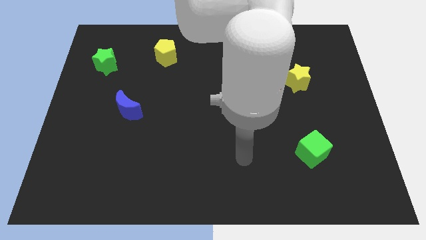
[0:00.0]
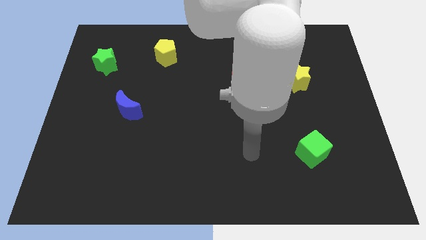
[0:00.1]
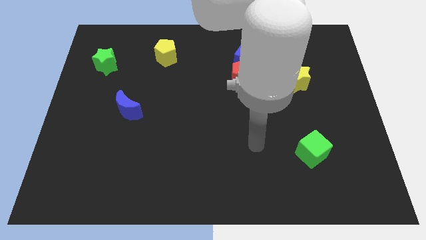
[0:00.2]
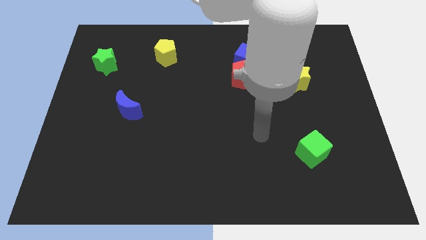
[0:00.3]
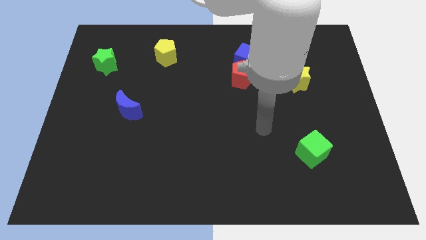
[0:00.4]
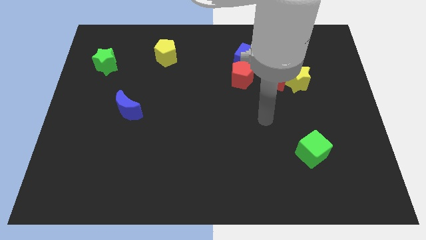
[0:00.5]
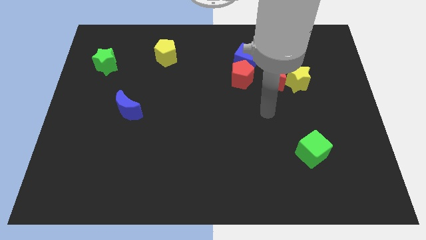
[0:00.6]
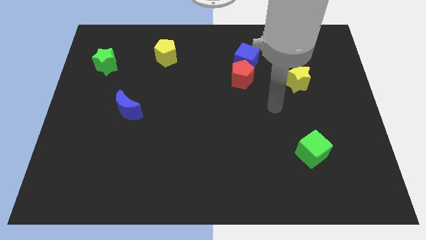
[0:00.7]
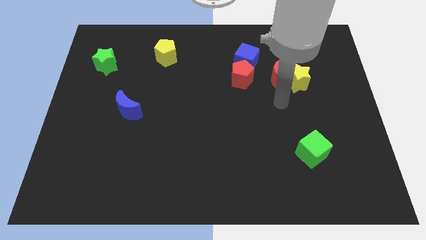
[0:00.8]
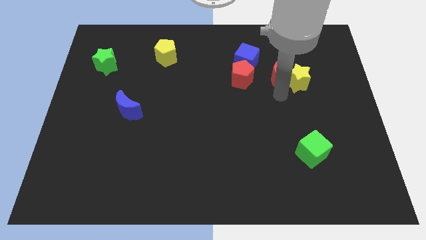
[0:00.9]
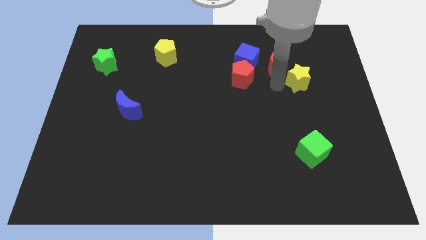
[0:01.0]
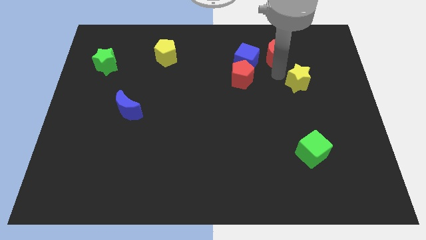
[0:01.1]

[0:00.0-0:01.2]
separate the yellow star from the red moon

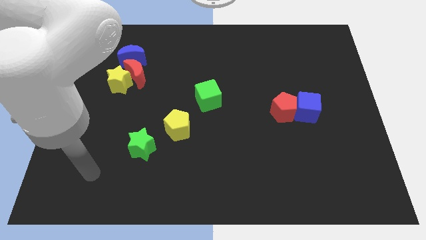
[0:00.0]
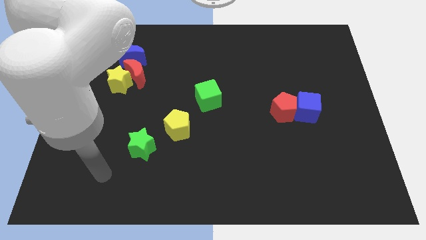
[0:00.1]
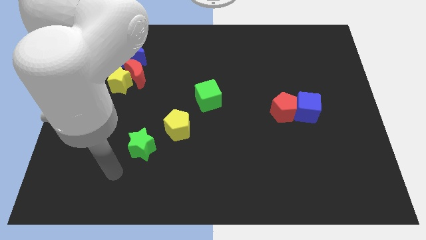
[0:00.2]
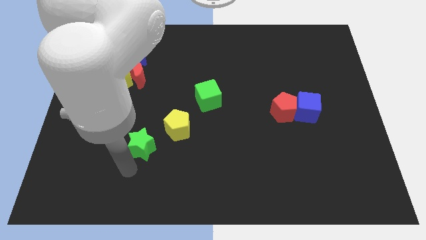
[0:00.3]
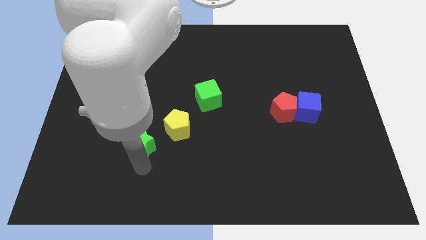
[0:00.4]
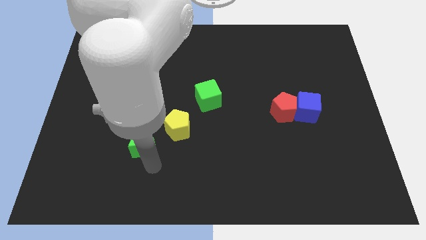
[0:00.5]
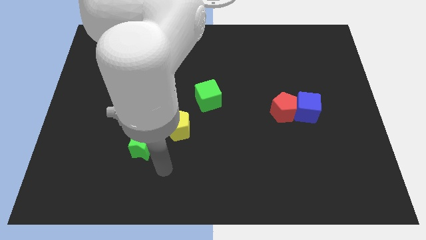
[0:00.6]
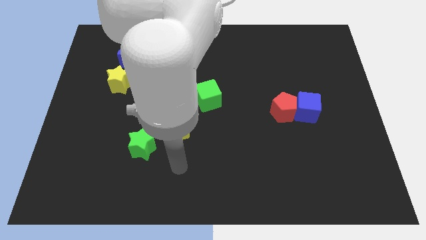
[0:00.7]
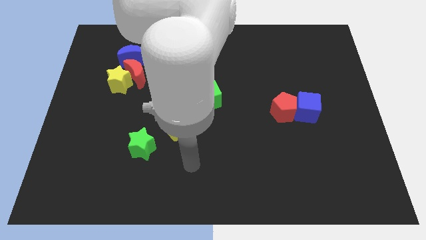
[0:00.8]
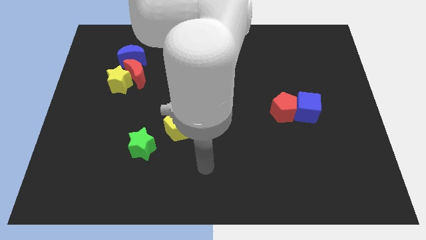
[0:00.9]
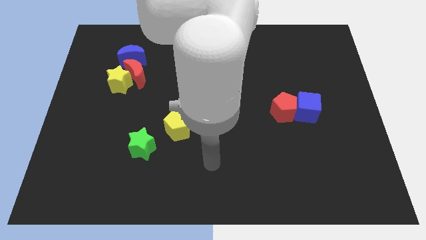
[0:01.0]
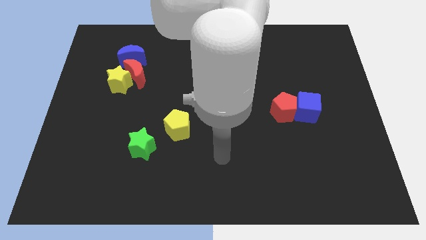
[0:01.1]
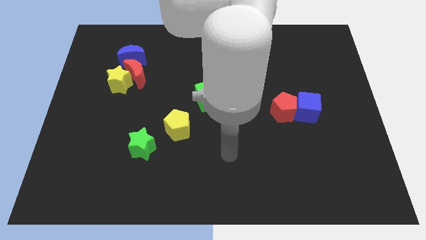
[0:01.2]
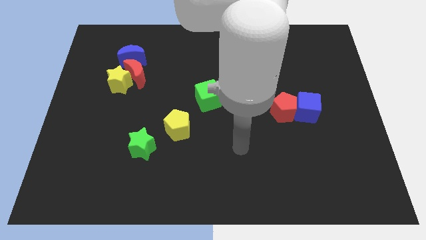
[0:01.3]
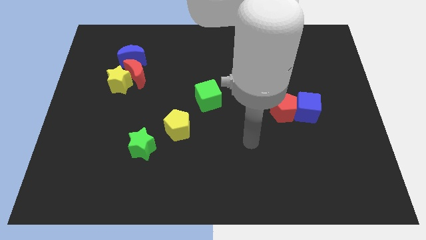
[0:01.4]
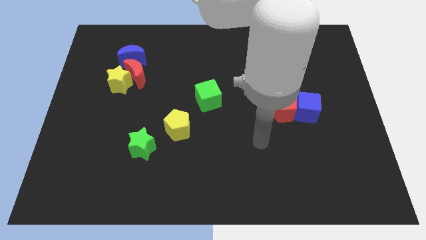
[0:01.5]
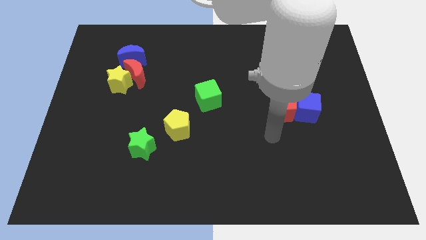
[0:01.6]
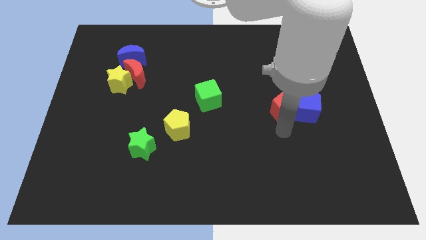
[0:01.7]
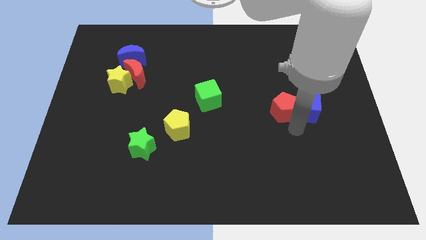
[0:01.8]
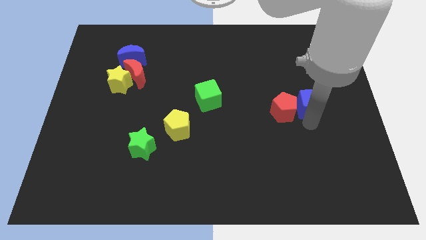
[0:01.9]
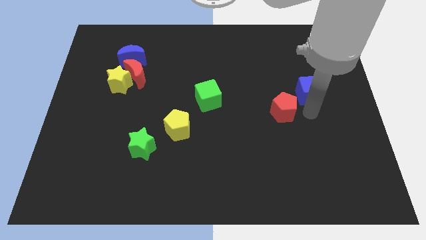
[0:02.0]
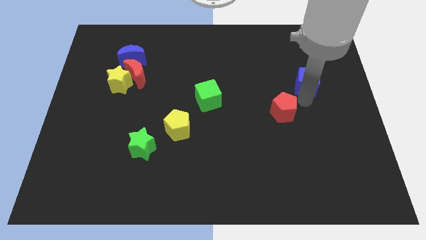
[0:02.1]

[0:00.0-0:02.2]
move the red pentagon away from the blue cube

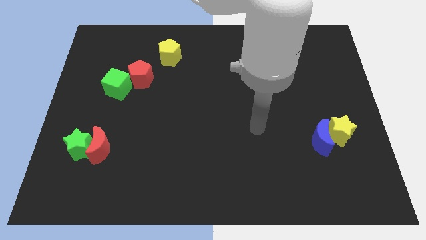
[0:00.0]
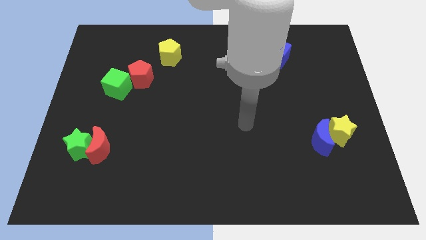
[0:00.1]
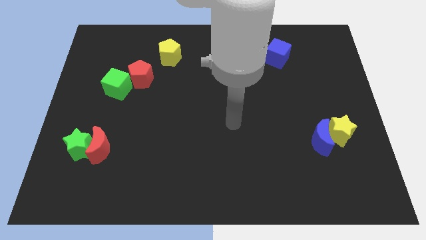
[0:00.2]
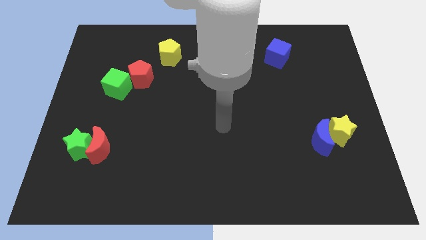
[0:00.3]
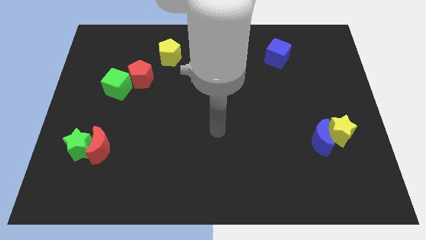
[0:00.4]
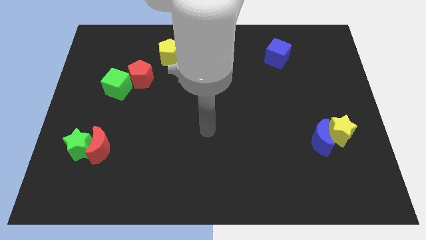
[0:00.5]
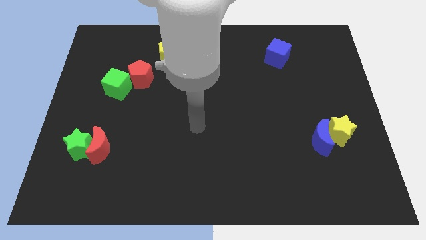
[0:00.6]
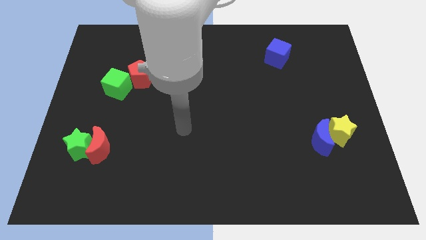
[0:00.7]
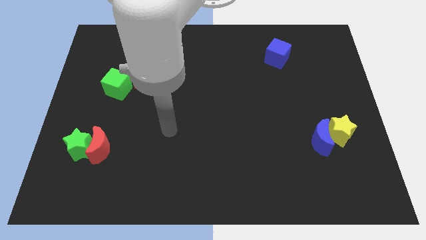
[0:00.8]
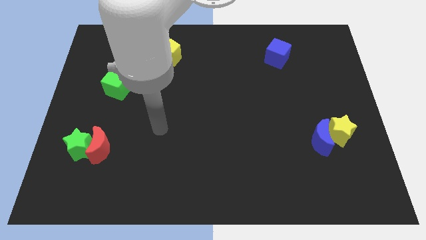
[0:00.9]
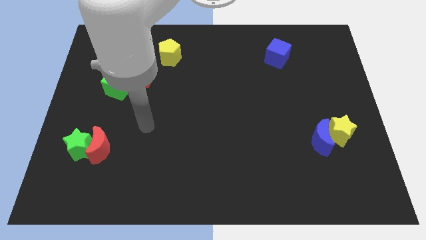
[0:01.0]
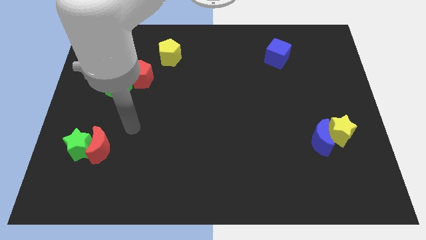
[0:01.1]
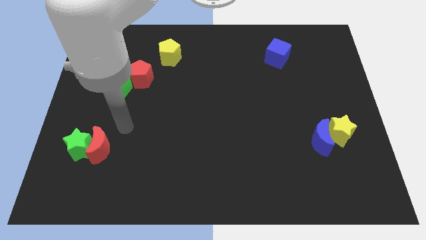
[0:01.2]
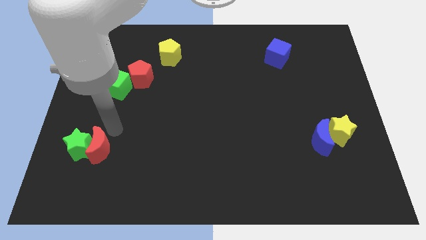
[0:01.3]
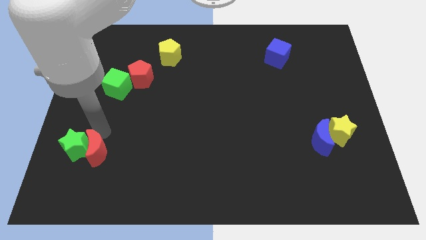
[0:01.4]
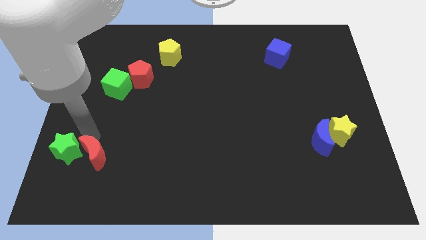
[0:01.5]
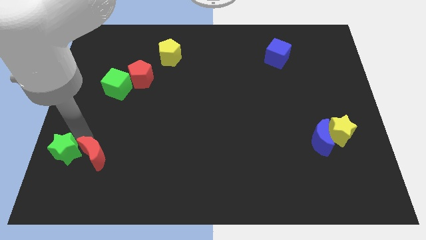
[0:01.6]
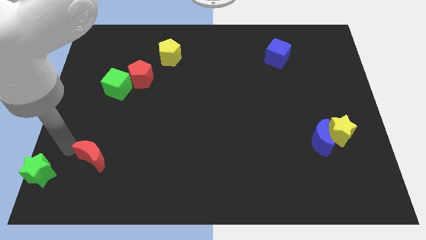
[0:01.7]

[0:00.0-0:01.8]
move the red moon away from the green star

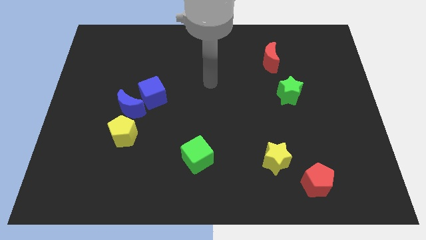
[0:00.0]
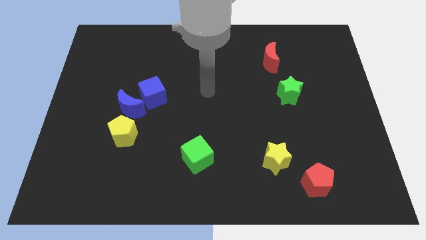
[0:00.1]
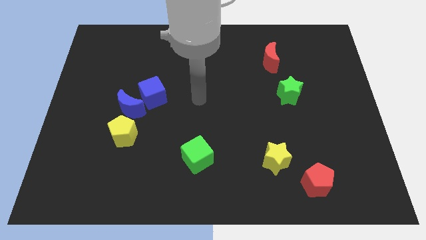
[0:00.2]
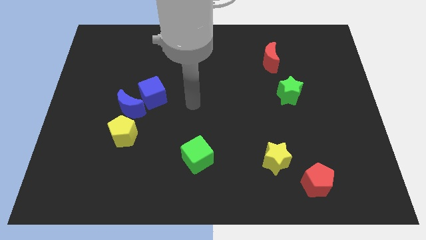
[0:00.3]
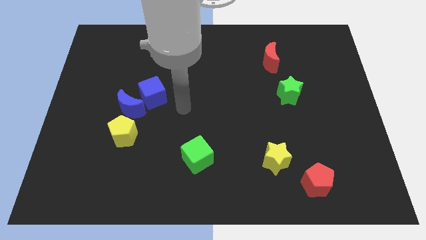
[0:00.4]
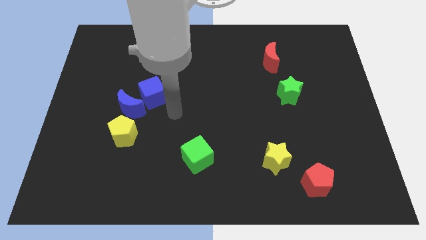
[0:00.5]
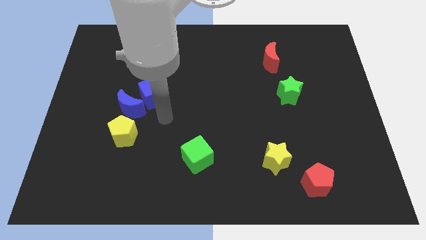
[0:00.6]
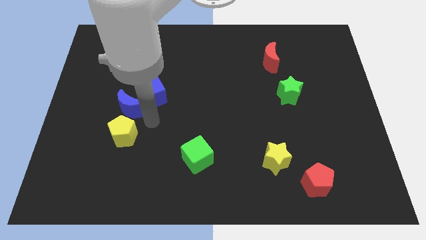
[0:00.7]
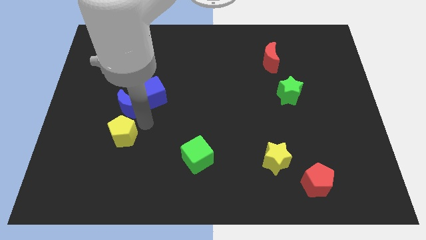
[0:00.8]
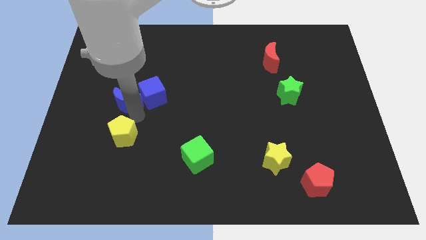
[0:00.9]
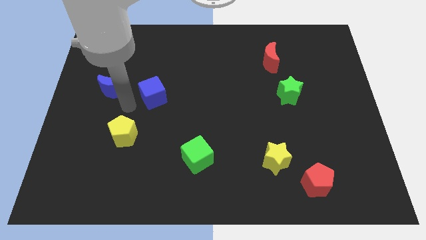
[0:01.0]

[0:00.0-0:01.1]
move the blue cube away from the blue moon

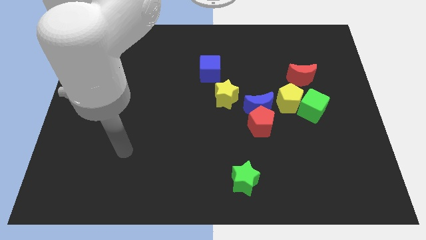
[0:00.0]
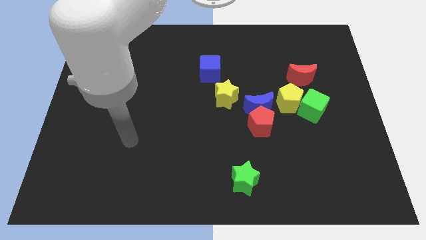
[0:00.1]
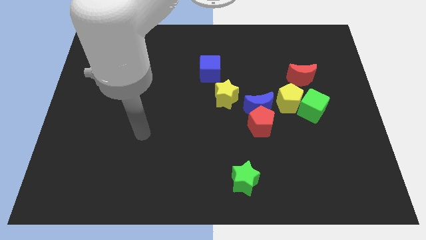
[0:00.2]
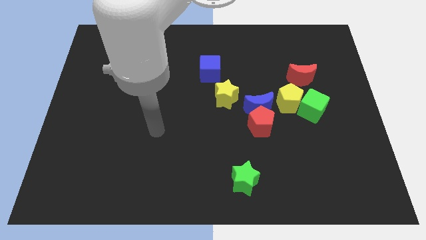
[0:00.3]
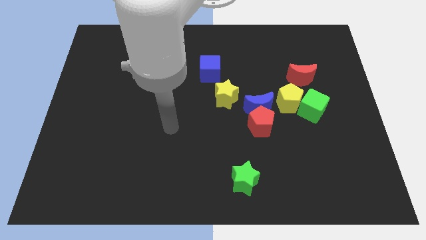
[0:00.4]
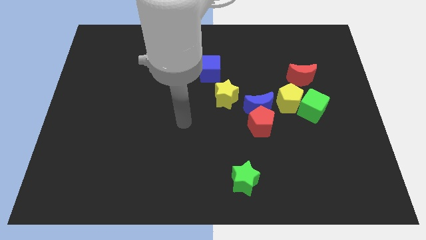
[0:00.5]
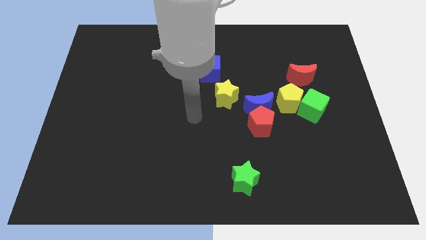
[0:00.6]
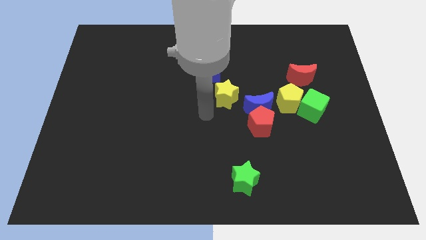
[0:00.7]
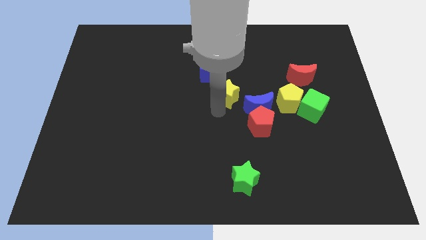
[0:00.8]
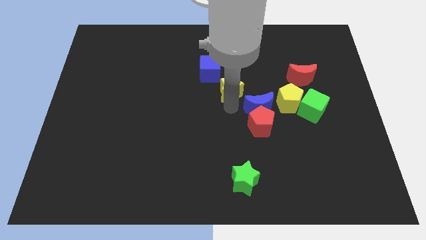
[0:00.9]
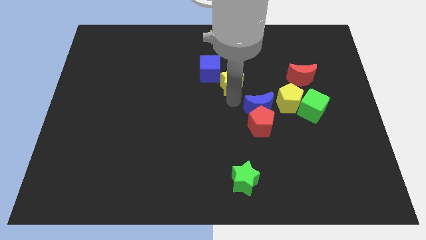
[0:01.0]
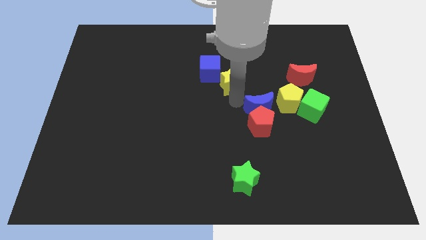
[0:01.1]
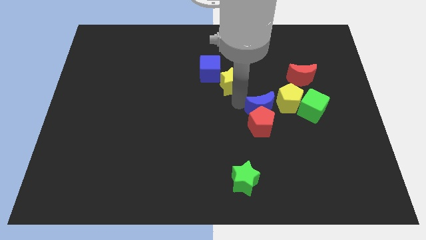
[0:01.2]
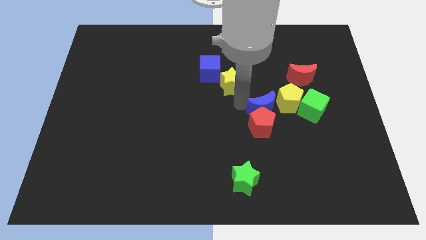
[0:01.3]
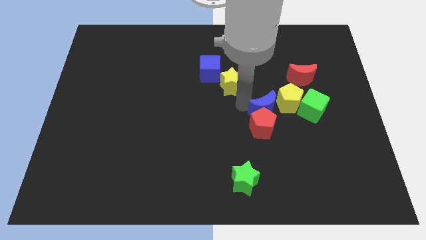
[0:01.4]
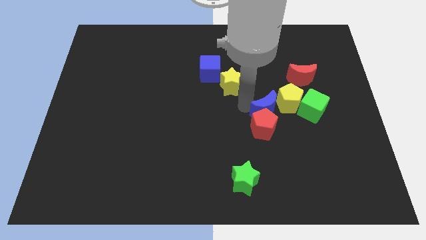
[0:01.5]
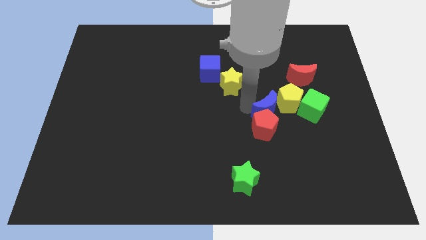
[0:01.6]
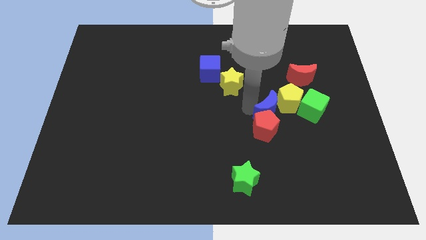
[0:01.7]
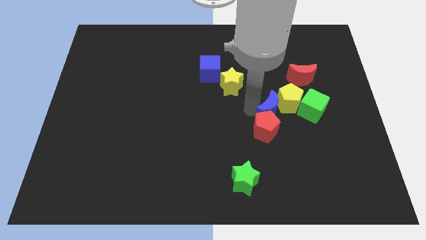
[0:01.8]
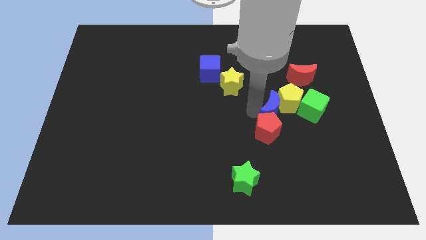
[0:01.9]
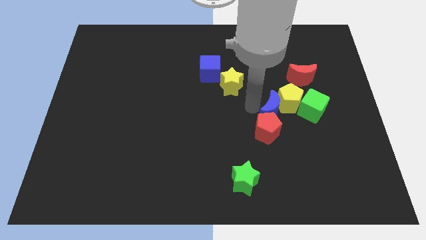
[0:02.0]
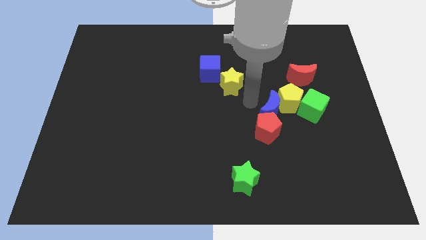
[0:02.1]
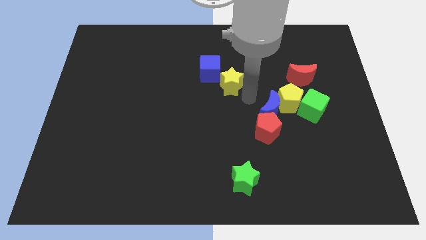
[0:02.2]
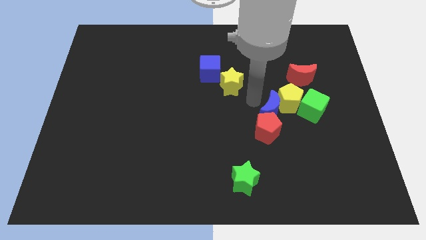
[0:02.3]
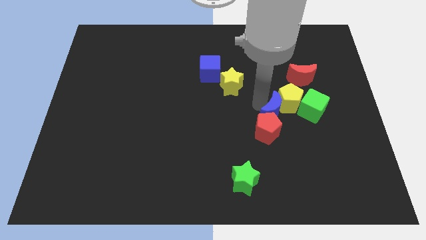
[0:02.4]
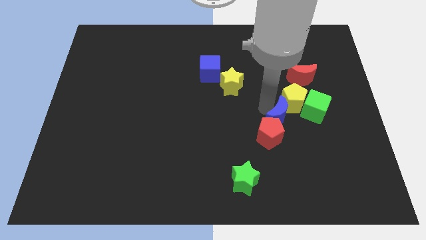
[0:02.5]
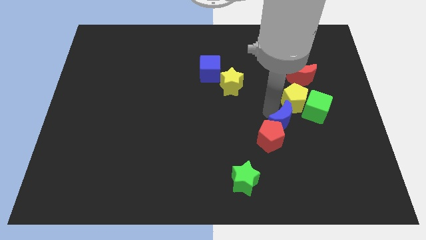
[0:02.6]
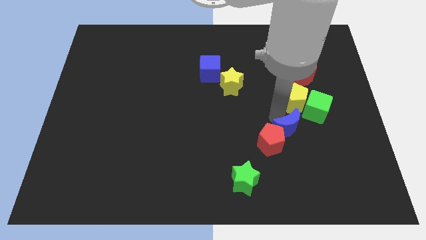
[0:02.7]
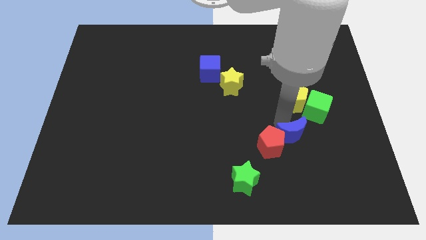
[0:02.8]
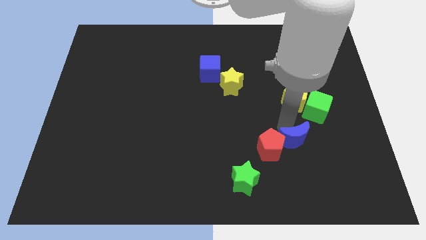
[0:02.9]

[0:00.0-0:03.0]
pull the blue moon apart from the clump

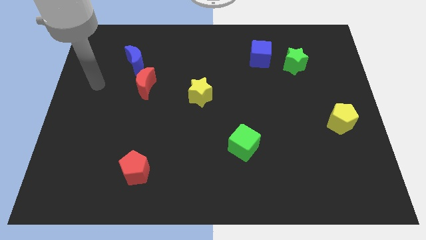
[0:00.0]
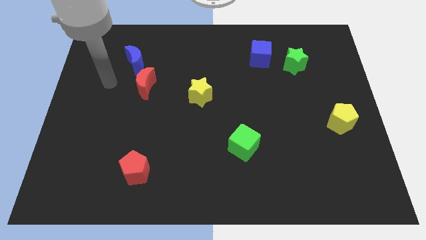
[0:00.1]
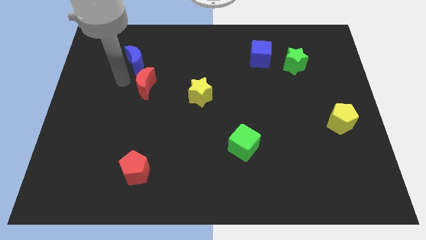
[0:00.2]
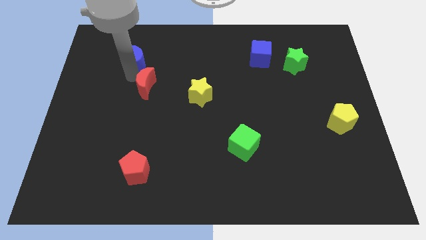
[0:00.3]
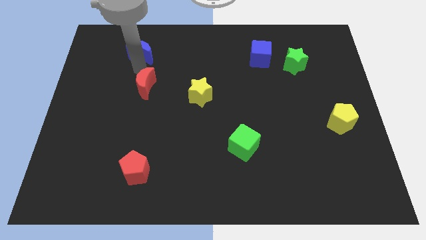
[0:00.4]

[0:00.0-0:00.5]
pull the red moon apart from the blue moon
